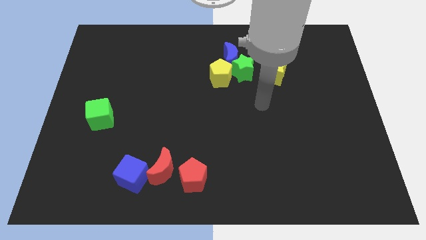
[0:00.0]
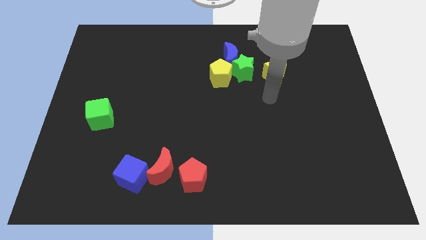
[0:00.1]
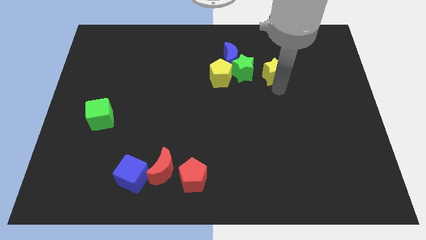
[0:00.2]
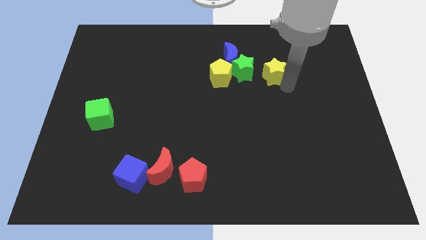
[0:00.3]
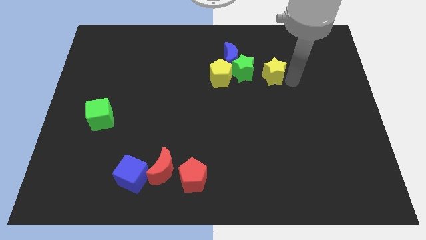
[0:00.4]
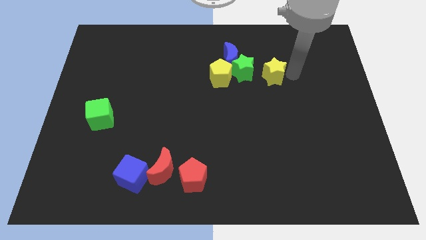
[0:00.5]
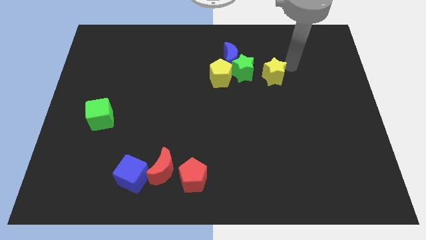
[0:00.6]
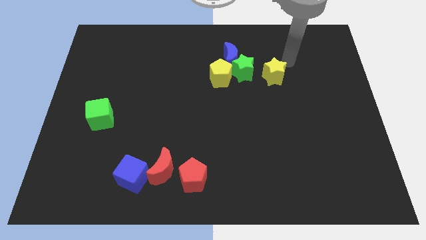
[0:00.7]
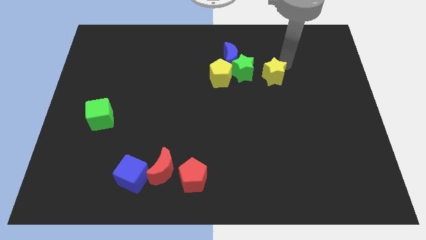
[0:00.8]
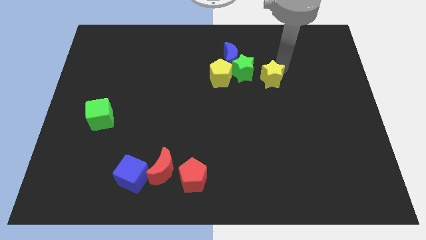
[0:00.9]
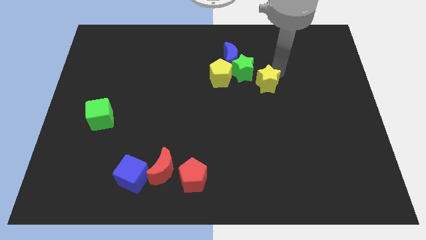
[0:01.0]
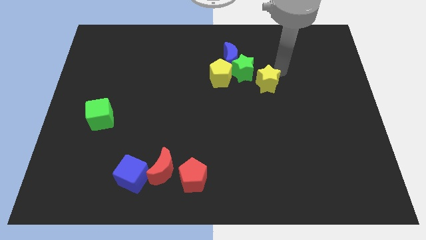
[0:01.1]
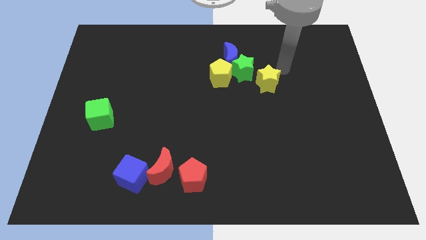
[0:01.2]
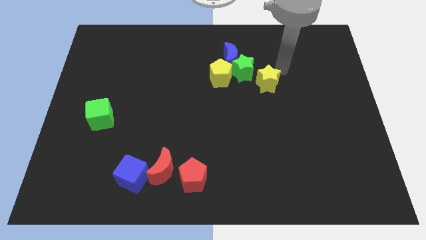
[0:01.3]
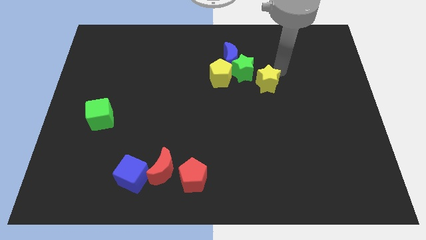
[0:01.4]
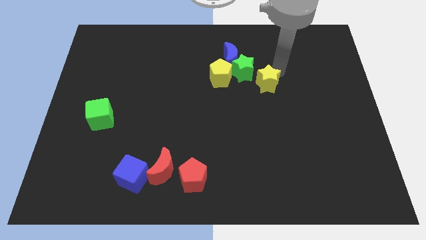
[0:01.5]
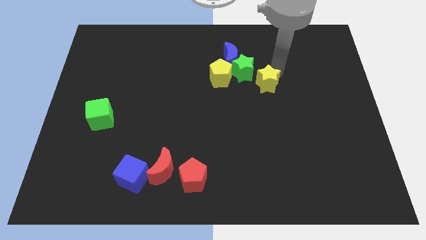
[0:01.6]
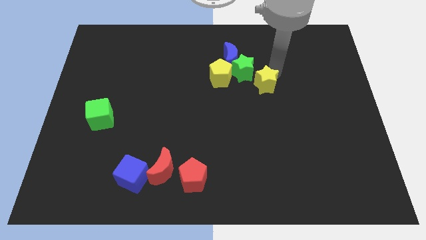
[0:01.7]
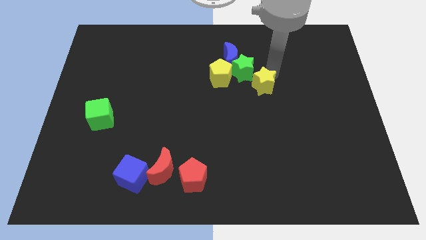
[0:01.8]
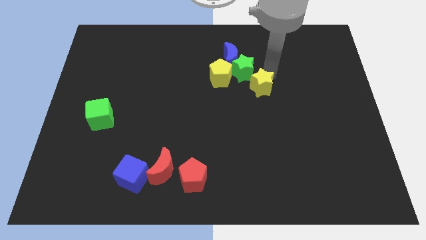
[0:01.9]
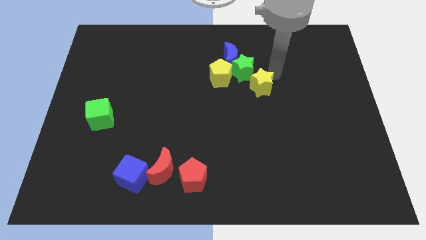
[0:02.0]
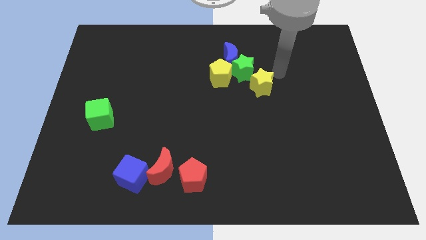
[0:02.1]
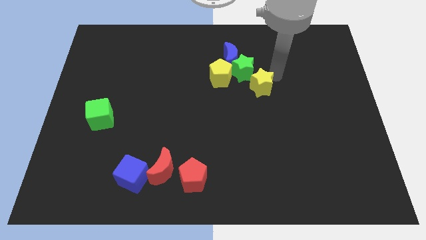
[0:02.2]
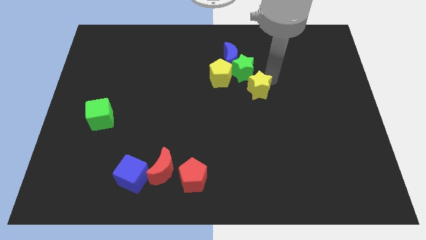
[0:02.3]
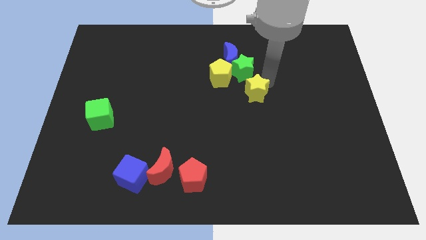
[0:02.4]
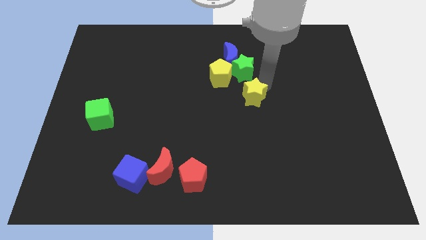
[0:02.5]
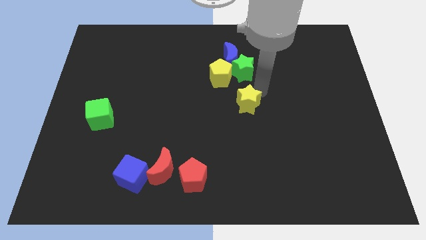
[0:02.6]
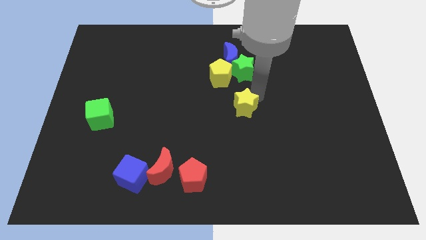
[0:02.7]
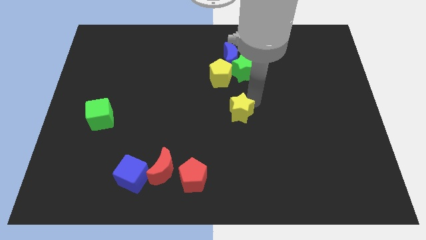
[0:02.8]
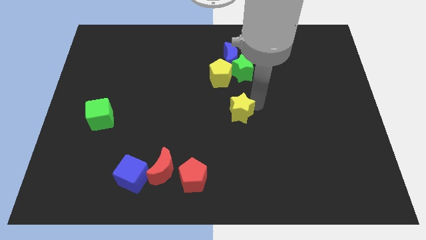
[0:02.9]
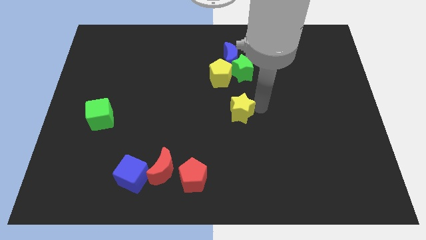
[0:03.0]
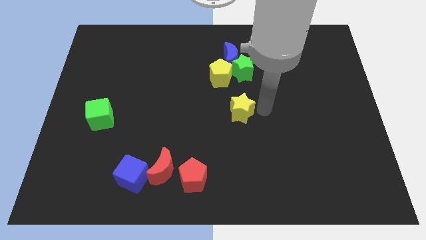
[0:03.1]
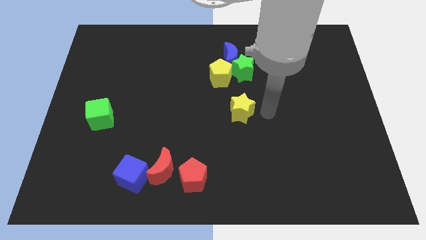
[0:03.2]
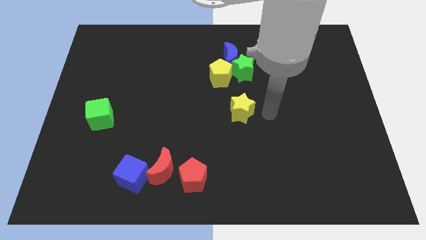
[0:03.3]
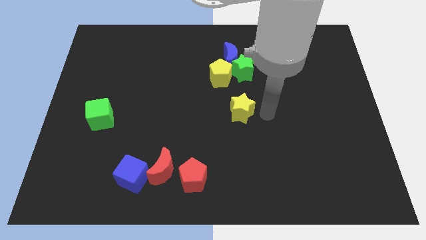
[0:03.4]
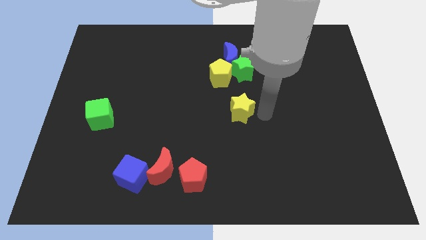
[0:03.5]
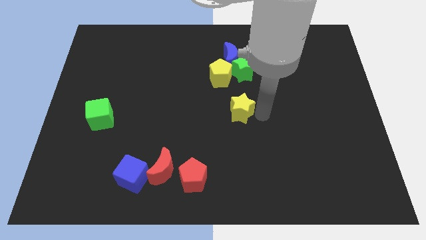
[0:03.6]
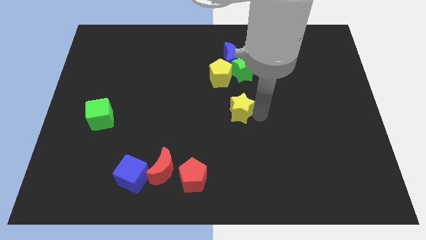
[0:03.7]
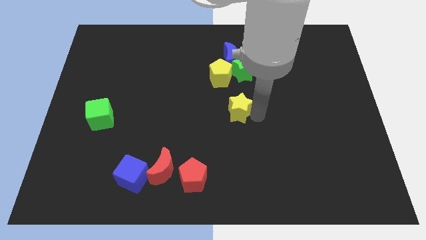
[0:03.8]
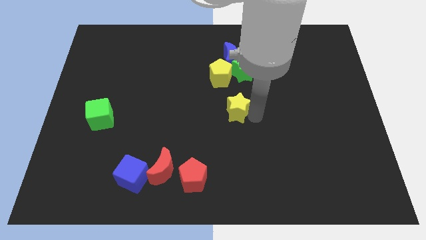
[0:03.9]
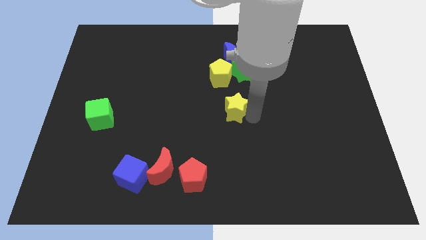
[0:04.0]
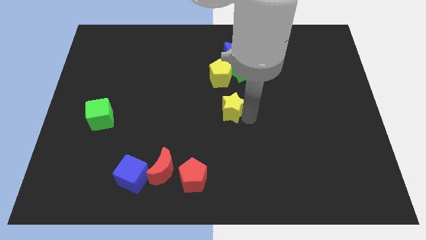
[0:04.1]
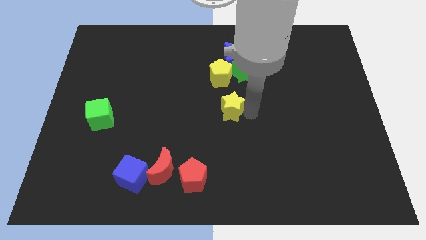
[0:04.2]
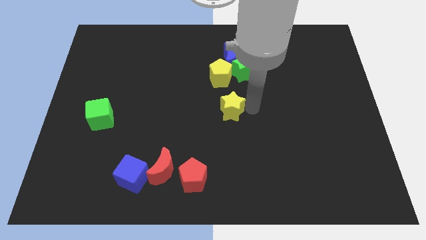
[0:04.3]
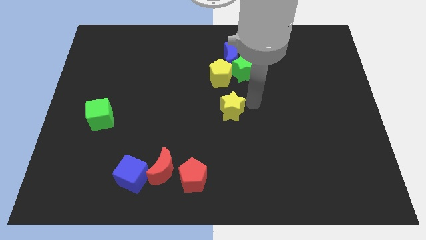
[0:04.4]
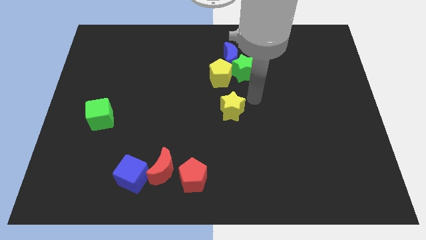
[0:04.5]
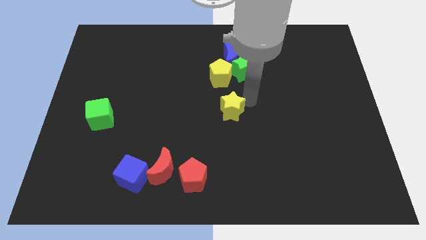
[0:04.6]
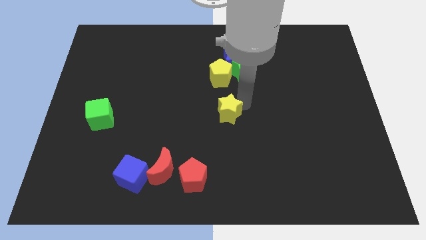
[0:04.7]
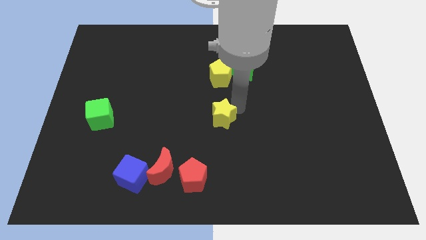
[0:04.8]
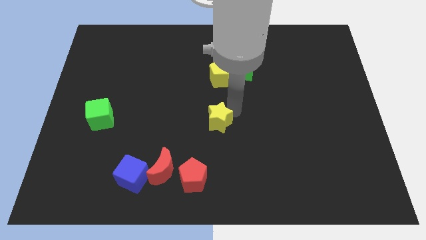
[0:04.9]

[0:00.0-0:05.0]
slide the yellow star downwards and left diagonally

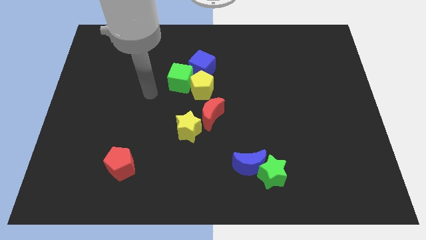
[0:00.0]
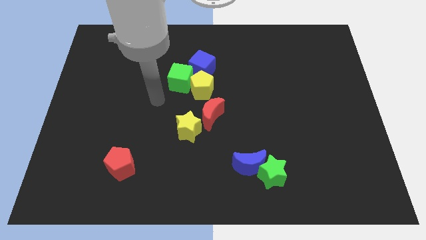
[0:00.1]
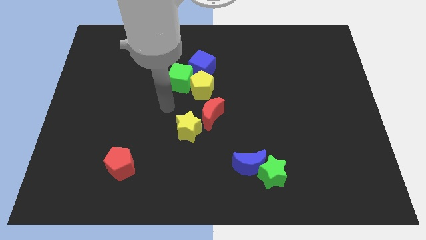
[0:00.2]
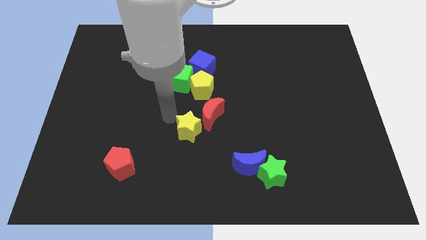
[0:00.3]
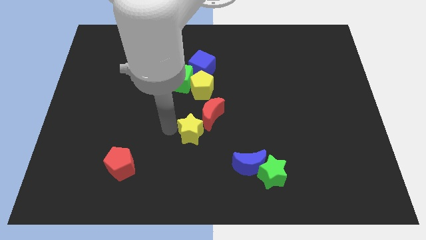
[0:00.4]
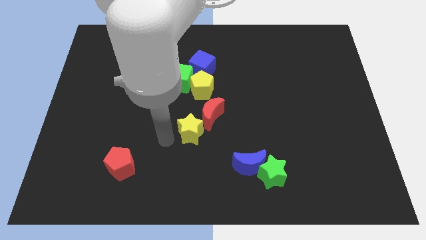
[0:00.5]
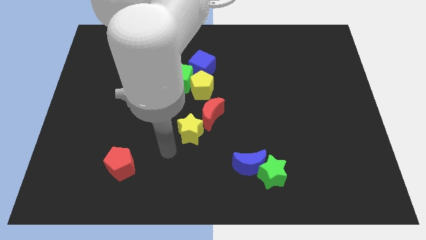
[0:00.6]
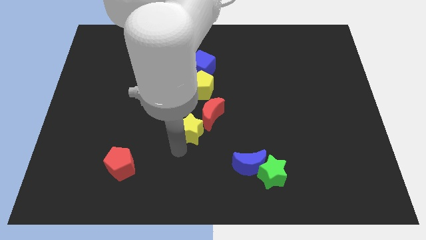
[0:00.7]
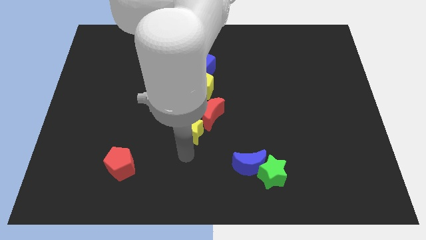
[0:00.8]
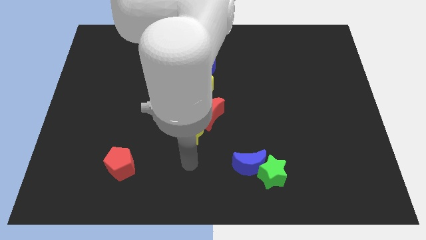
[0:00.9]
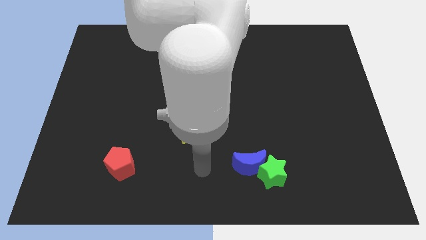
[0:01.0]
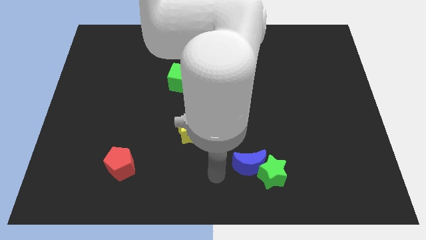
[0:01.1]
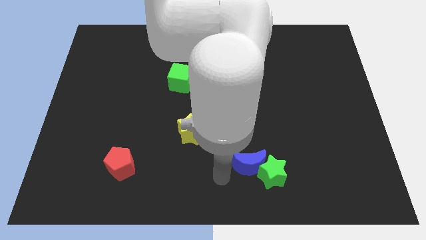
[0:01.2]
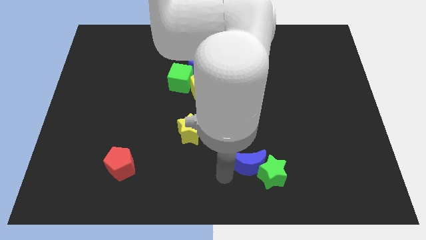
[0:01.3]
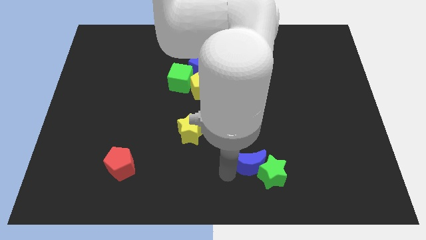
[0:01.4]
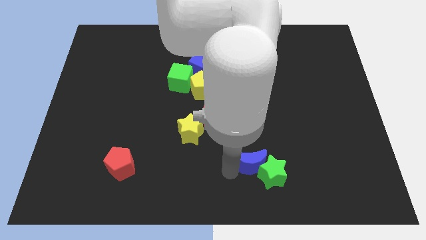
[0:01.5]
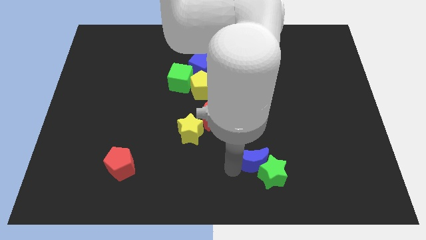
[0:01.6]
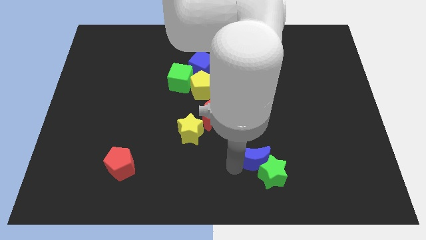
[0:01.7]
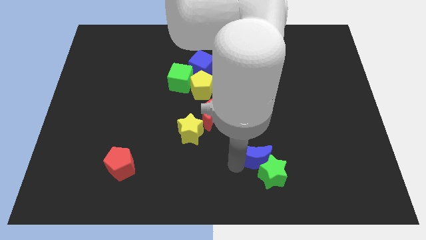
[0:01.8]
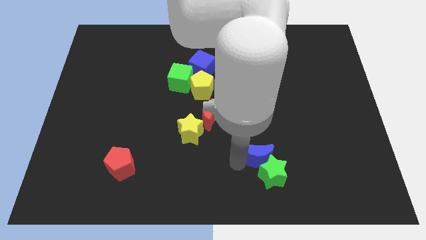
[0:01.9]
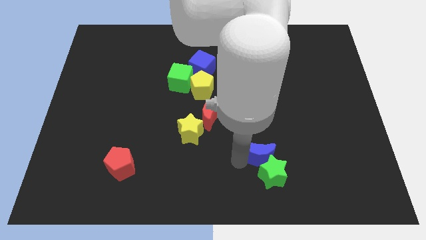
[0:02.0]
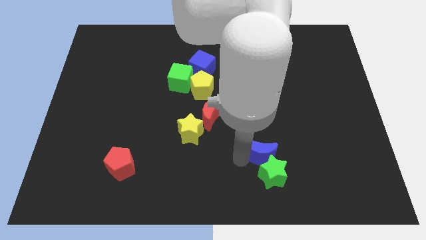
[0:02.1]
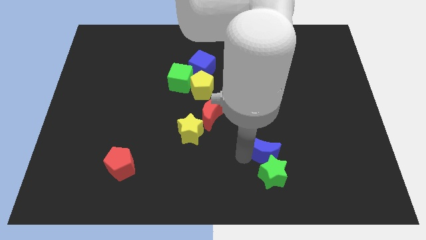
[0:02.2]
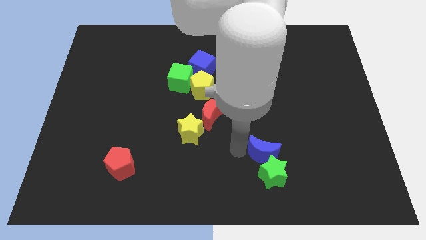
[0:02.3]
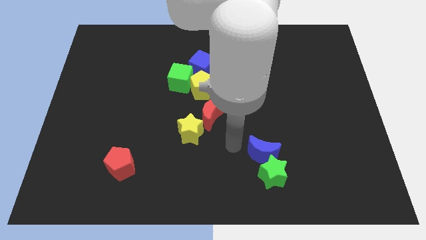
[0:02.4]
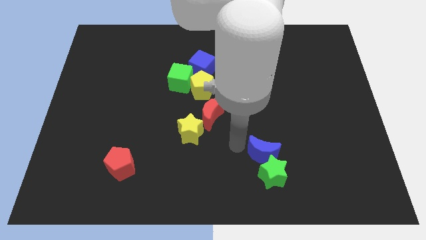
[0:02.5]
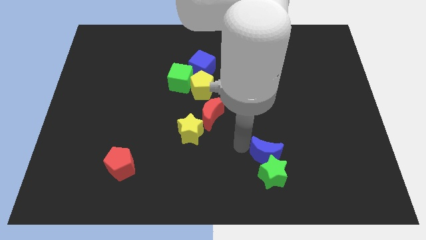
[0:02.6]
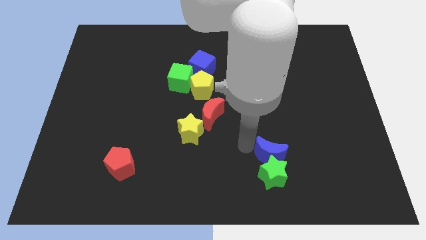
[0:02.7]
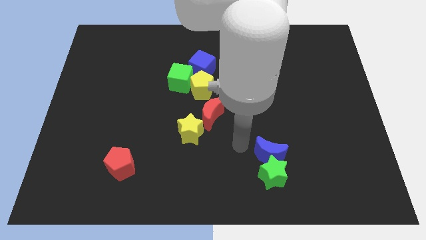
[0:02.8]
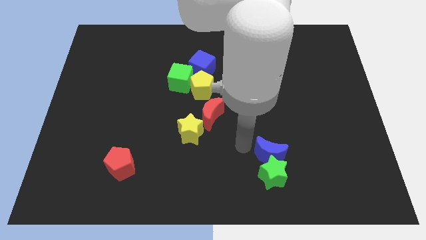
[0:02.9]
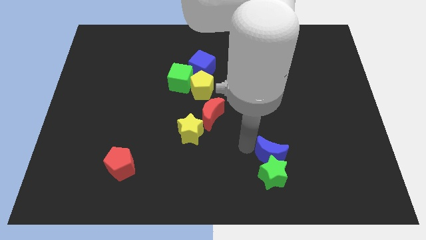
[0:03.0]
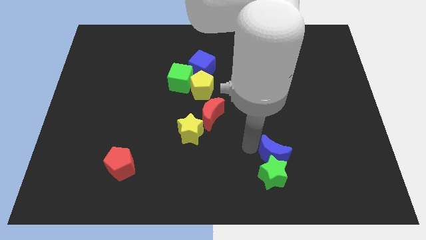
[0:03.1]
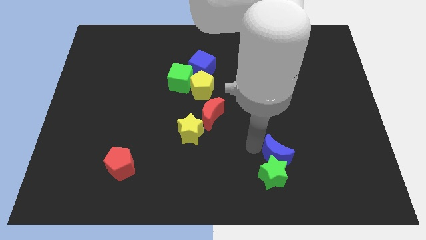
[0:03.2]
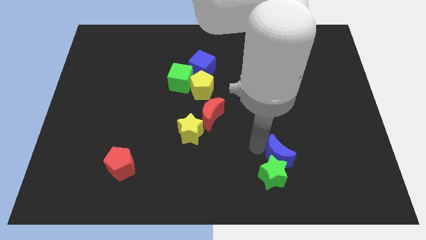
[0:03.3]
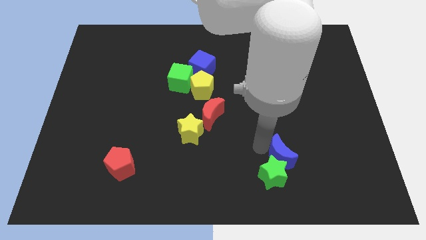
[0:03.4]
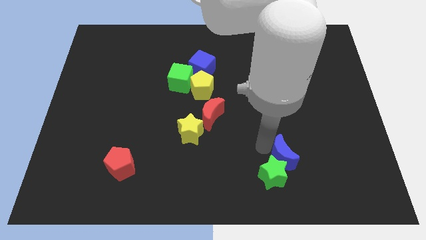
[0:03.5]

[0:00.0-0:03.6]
slide the blue moon a little bit to the right
